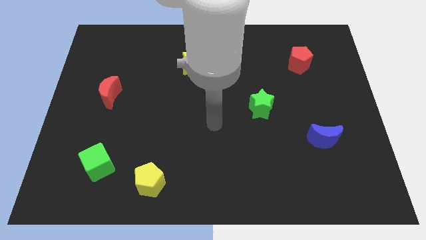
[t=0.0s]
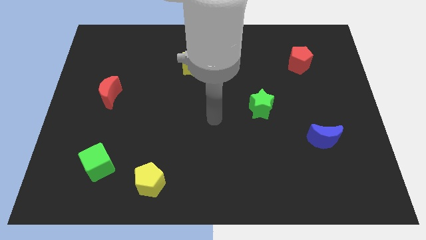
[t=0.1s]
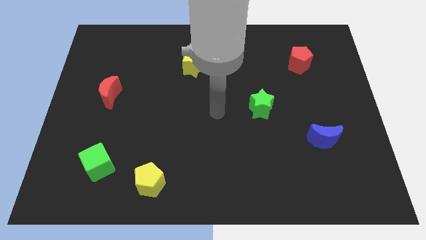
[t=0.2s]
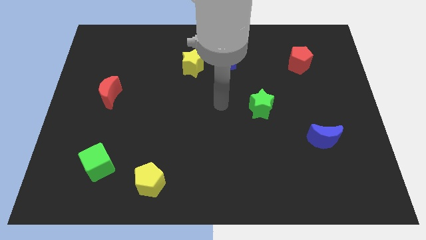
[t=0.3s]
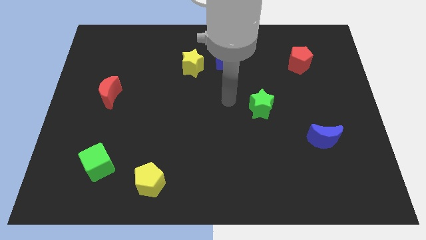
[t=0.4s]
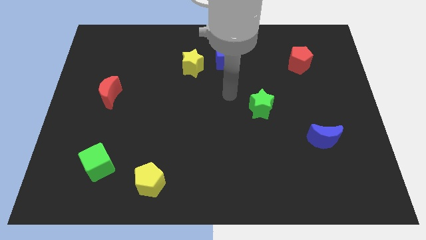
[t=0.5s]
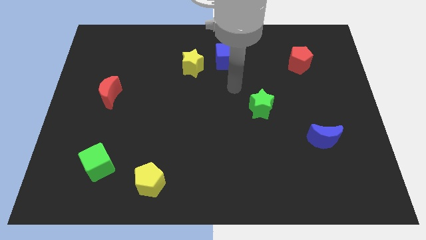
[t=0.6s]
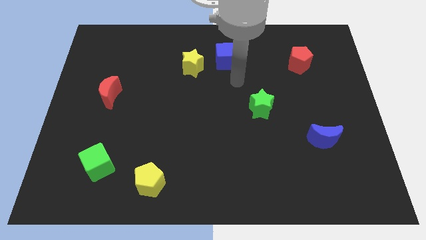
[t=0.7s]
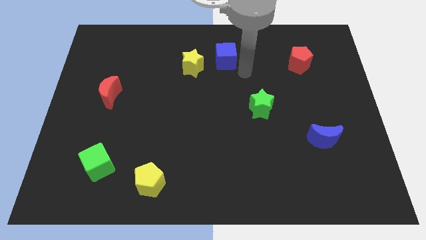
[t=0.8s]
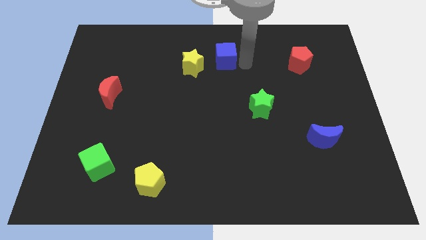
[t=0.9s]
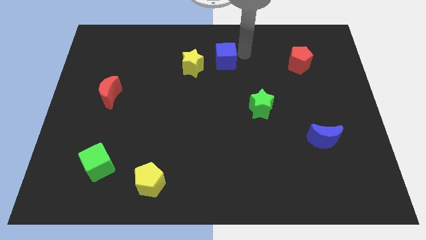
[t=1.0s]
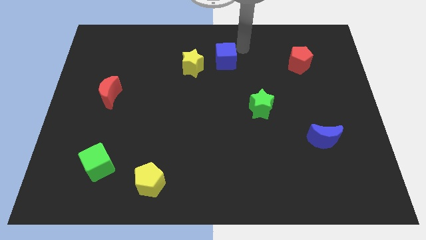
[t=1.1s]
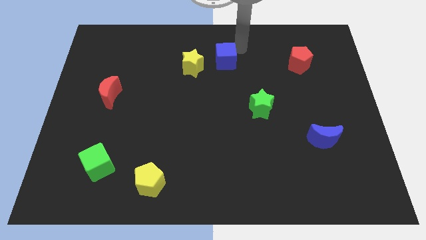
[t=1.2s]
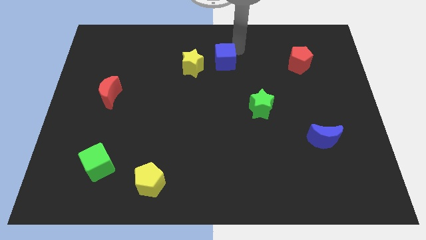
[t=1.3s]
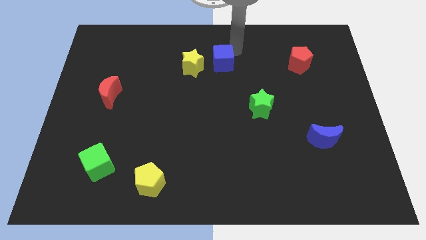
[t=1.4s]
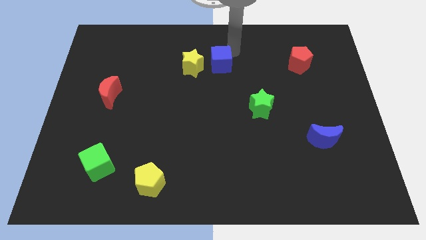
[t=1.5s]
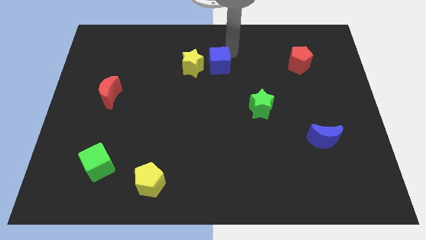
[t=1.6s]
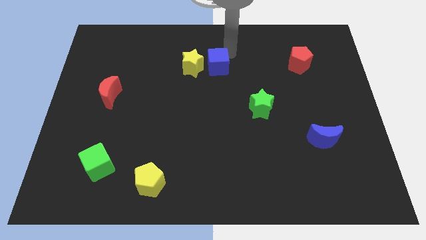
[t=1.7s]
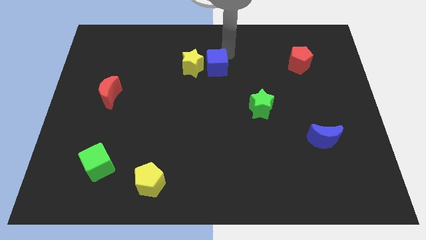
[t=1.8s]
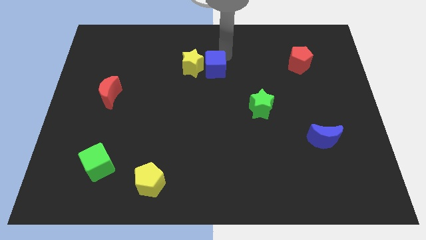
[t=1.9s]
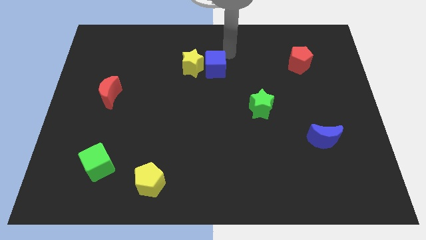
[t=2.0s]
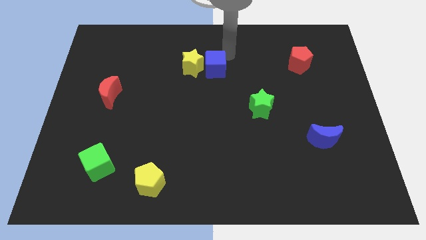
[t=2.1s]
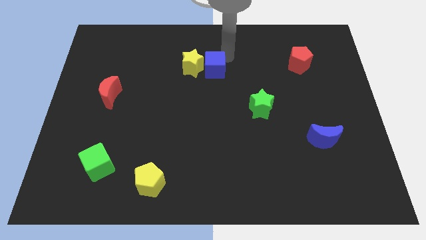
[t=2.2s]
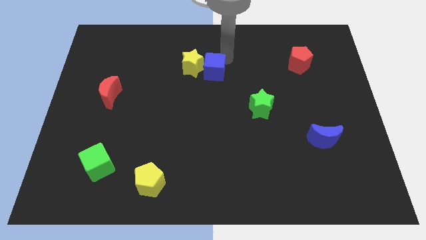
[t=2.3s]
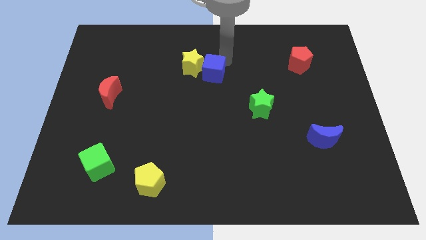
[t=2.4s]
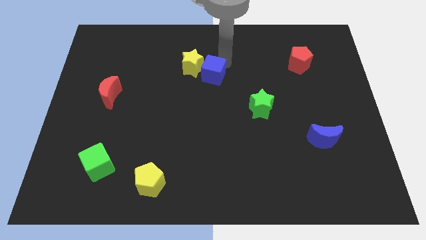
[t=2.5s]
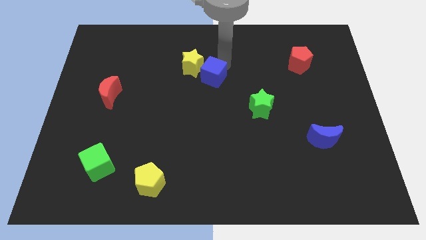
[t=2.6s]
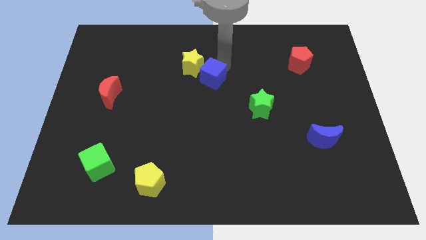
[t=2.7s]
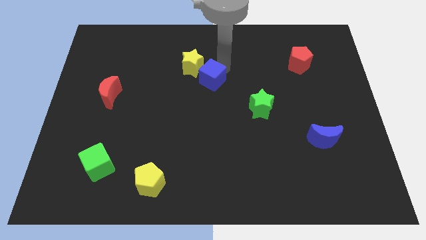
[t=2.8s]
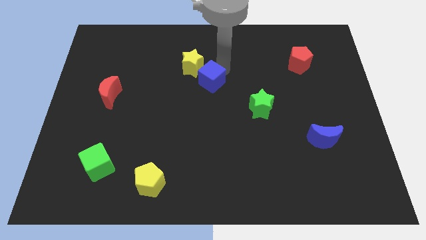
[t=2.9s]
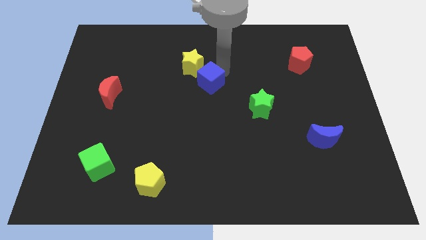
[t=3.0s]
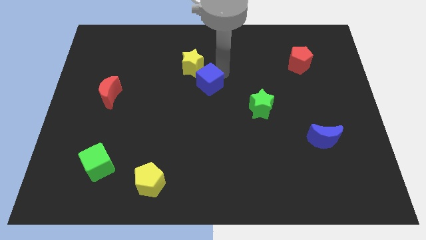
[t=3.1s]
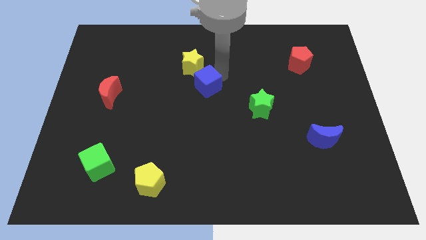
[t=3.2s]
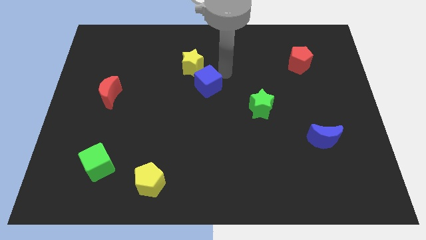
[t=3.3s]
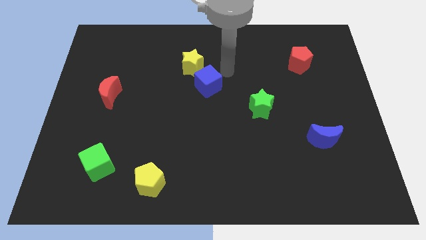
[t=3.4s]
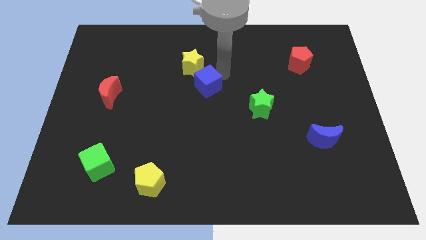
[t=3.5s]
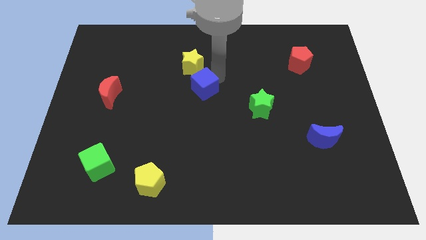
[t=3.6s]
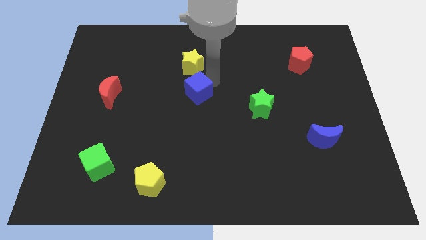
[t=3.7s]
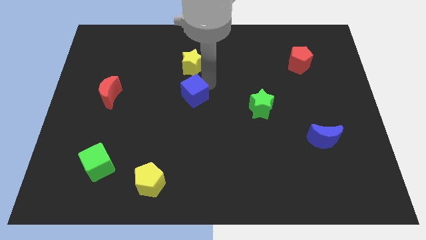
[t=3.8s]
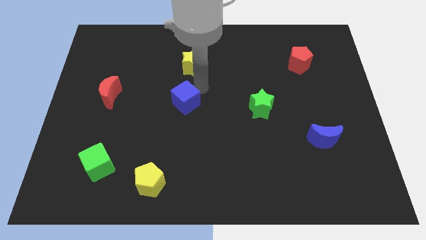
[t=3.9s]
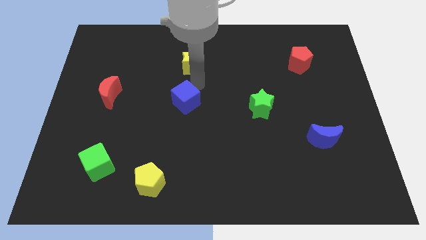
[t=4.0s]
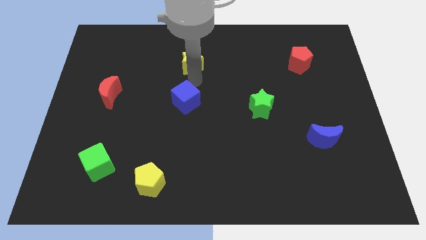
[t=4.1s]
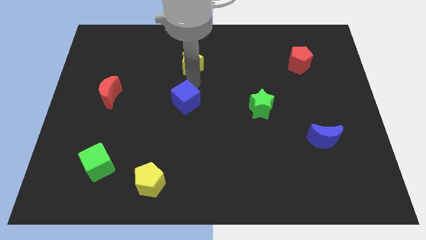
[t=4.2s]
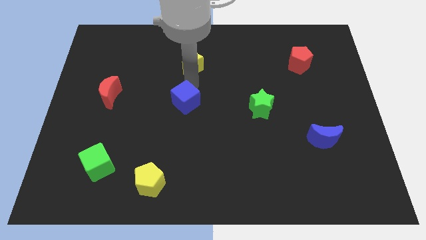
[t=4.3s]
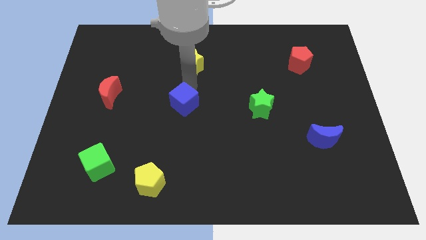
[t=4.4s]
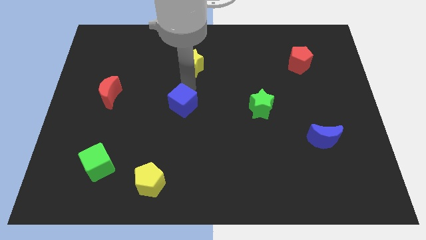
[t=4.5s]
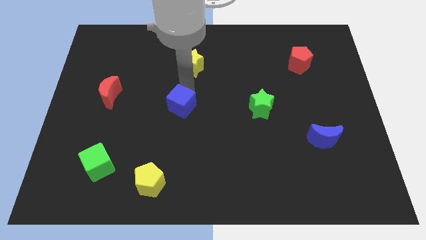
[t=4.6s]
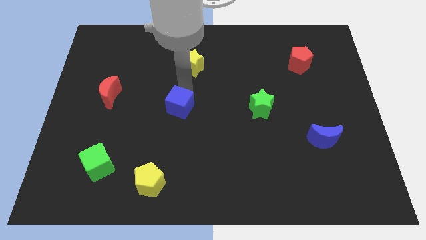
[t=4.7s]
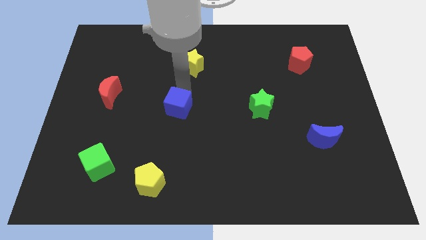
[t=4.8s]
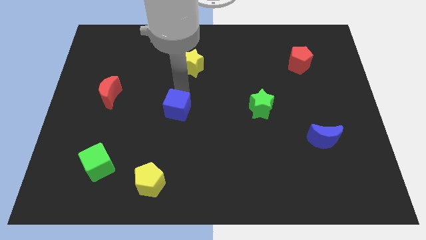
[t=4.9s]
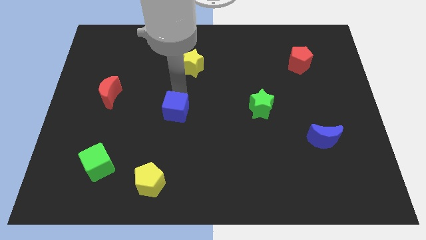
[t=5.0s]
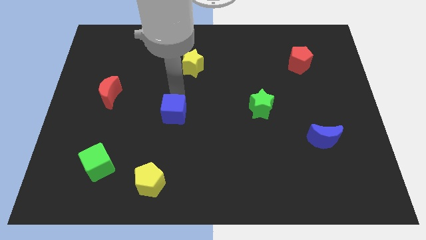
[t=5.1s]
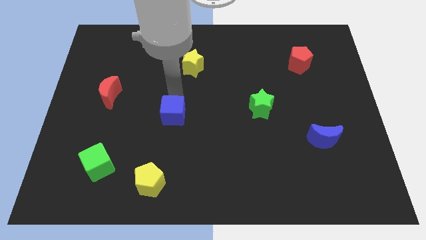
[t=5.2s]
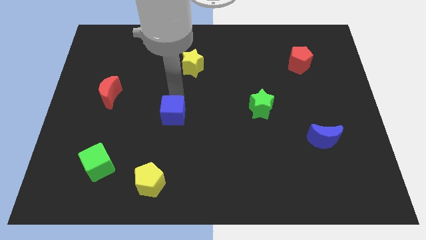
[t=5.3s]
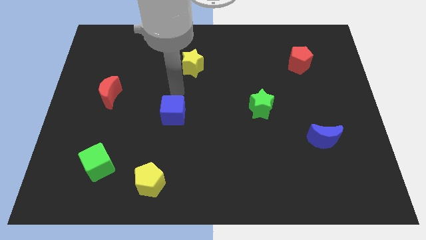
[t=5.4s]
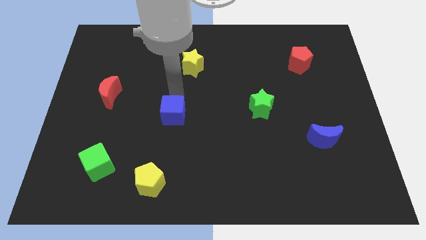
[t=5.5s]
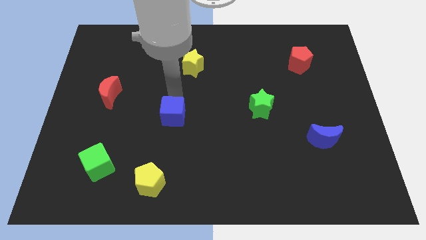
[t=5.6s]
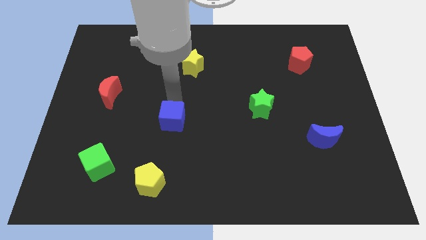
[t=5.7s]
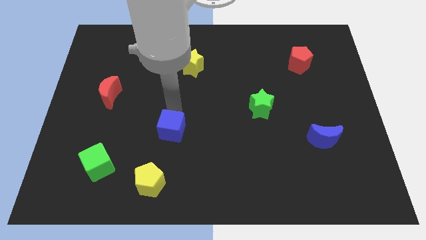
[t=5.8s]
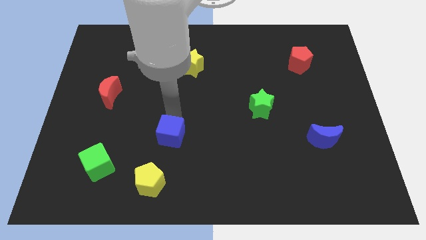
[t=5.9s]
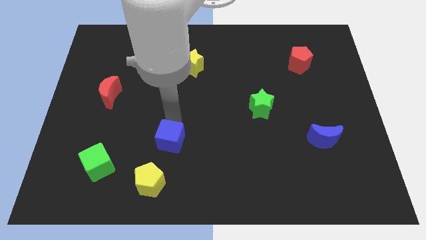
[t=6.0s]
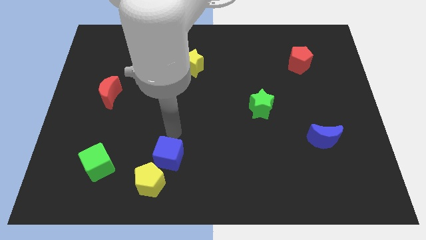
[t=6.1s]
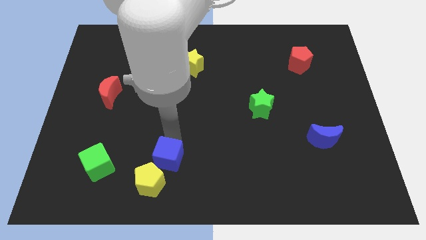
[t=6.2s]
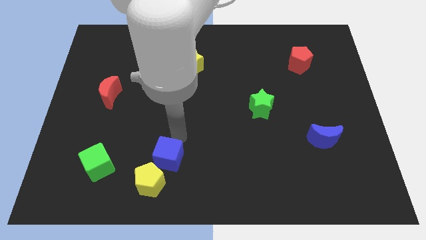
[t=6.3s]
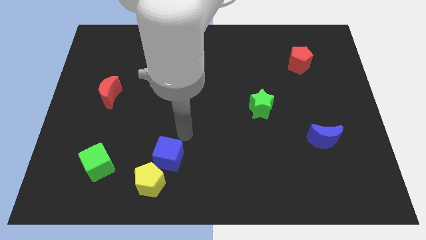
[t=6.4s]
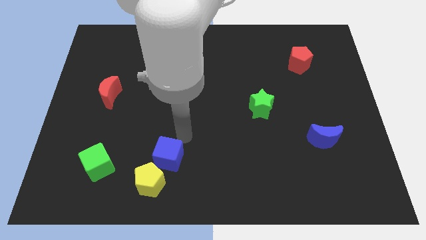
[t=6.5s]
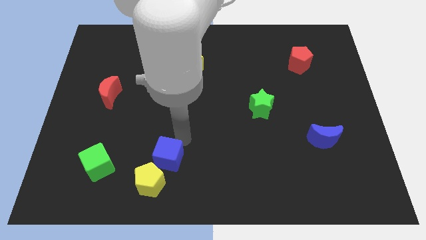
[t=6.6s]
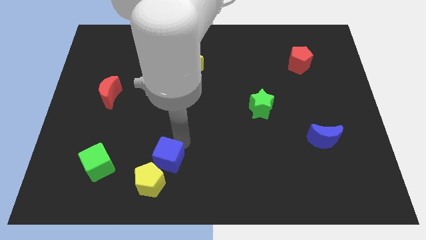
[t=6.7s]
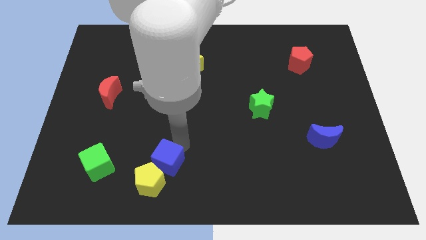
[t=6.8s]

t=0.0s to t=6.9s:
push the blue cube close to the yellow pentagon

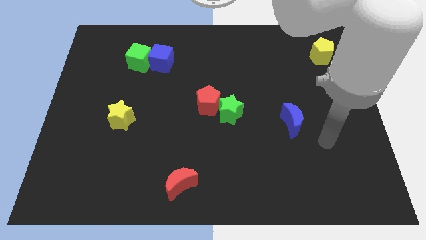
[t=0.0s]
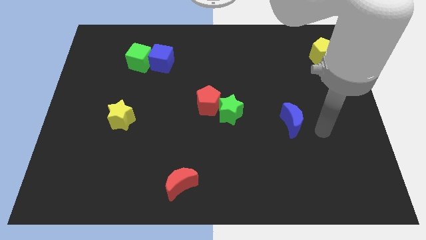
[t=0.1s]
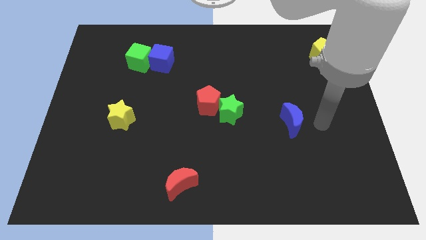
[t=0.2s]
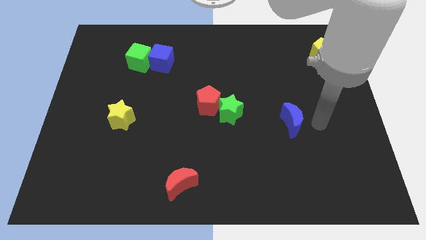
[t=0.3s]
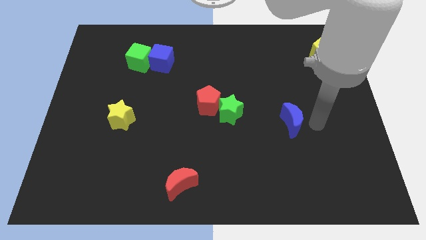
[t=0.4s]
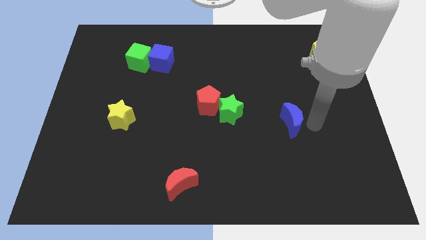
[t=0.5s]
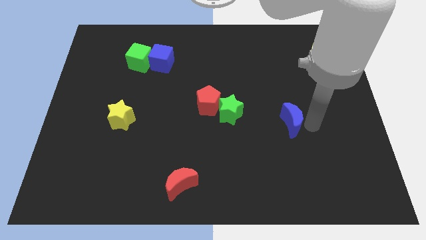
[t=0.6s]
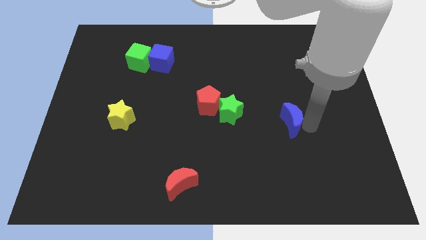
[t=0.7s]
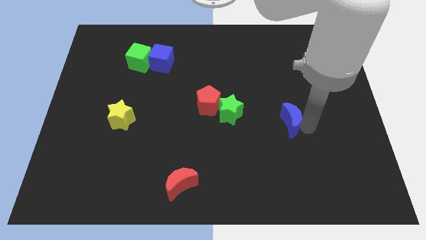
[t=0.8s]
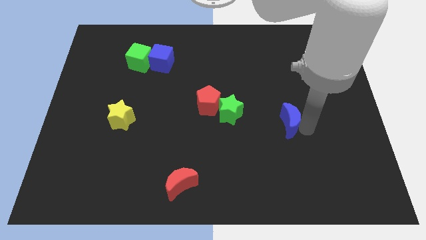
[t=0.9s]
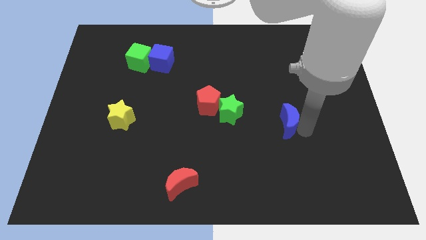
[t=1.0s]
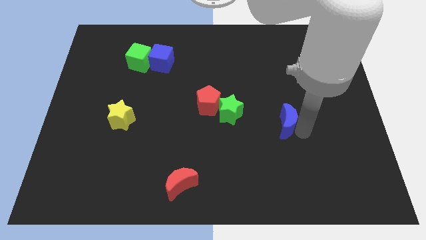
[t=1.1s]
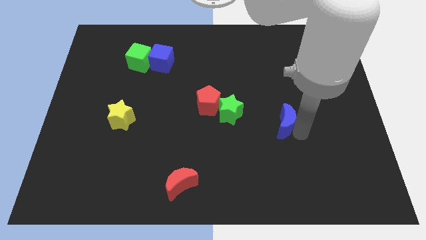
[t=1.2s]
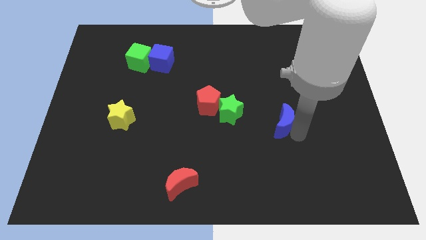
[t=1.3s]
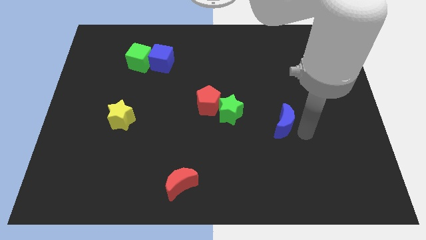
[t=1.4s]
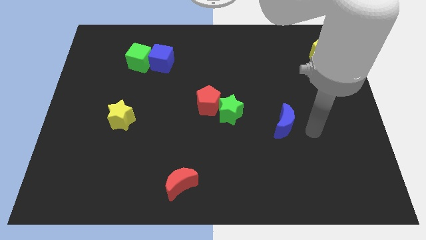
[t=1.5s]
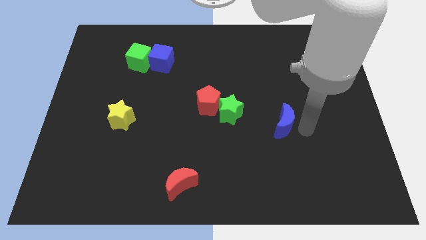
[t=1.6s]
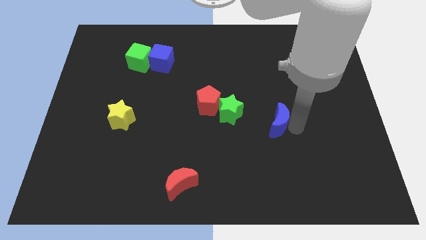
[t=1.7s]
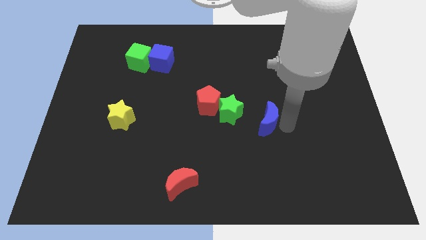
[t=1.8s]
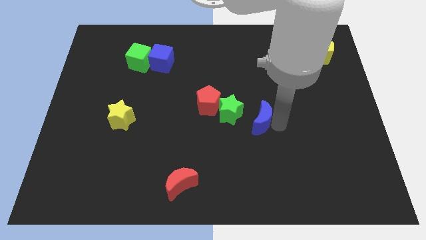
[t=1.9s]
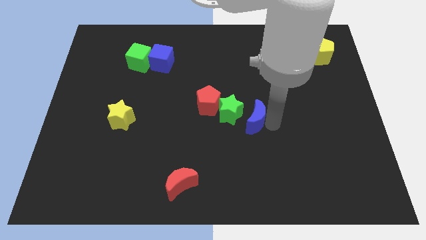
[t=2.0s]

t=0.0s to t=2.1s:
slide the blue moon close to the green star
